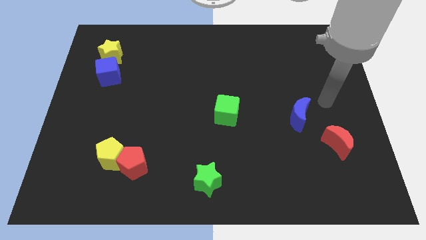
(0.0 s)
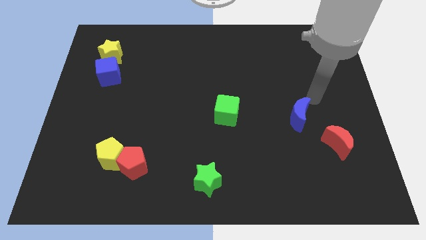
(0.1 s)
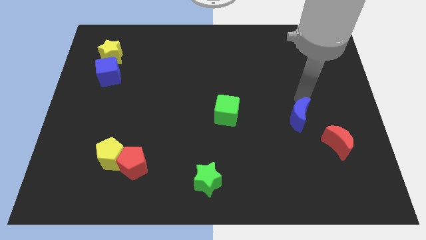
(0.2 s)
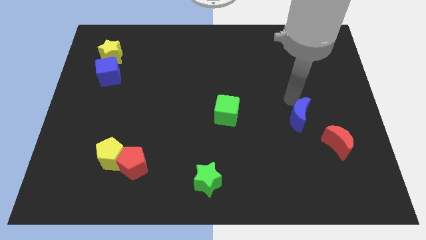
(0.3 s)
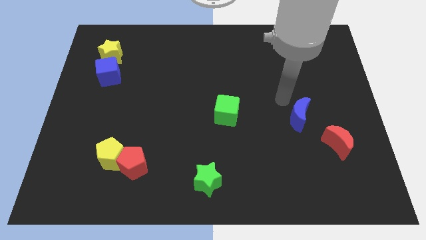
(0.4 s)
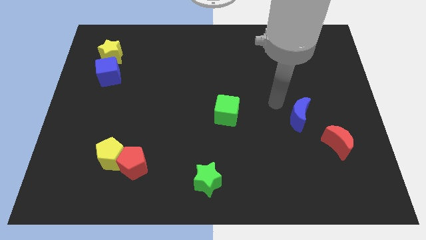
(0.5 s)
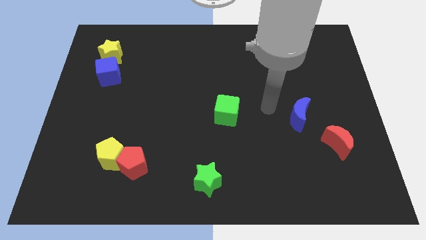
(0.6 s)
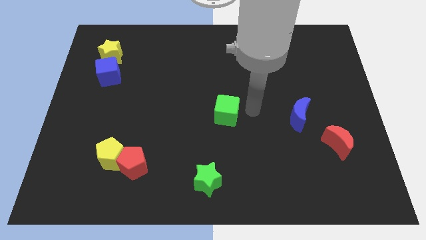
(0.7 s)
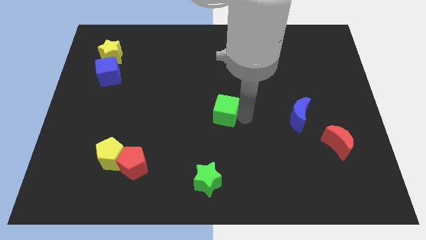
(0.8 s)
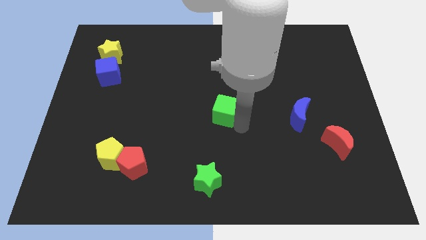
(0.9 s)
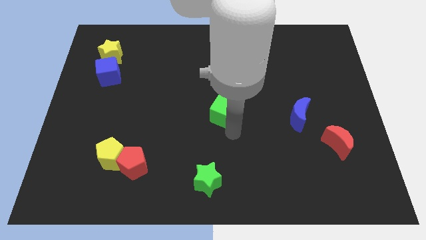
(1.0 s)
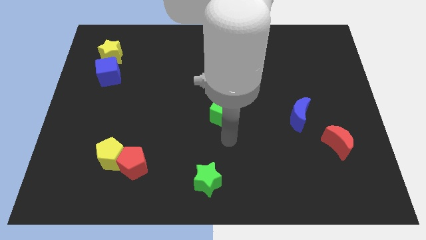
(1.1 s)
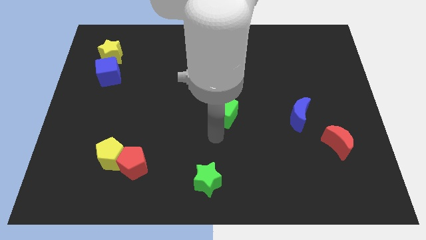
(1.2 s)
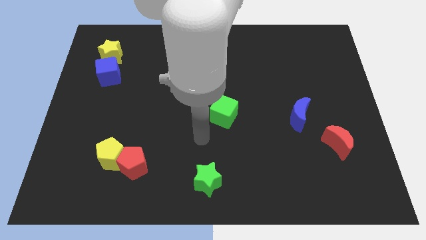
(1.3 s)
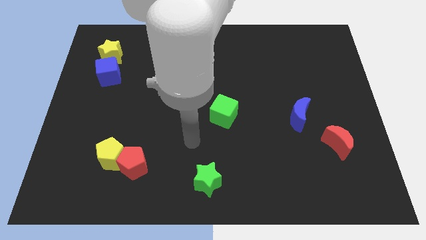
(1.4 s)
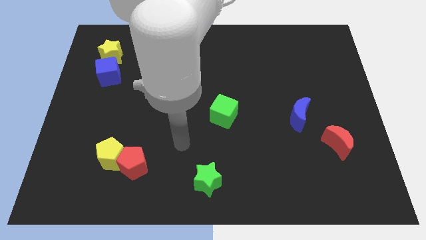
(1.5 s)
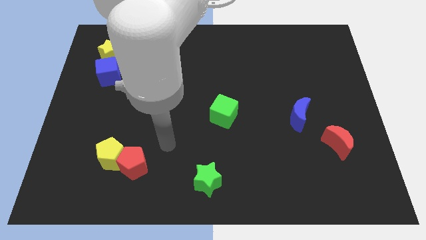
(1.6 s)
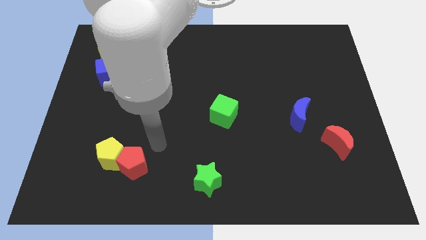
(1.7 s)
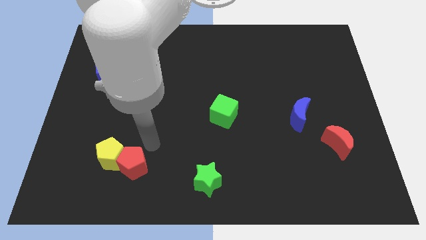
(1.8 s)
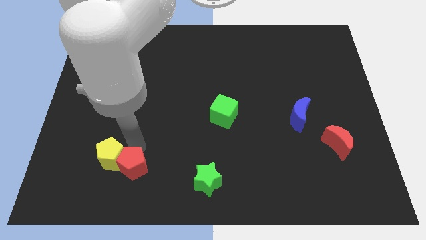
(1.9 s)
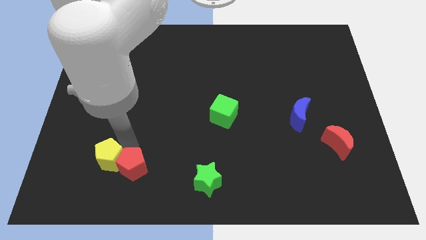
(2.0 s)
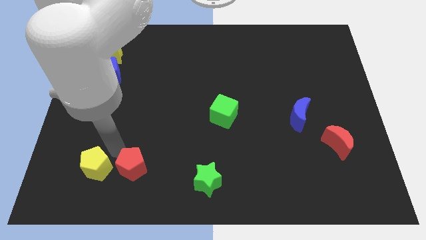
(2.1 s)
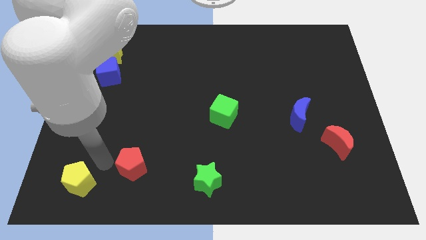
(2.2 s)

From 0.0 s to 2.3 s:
separate the red pentagon from the yellow pentagon

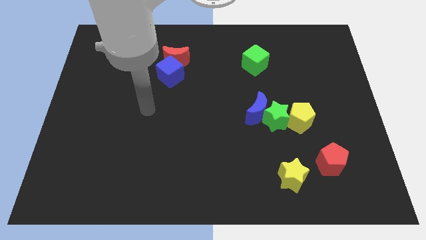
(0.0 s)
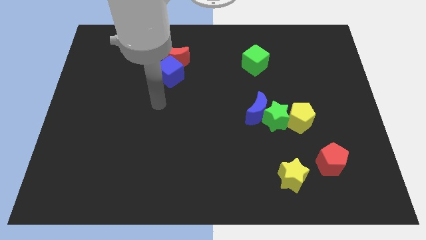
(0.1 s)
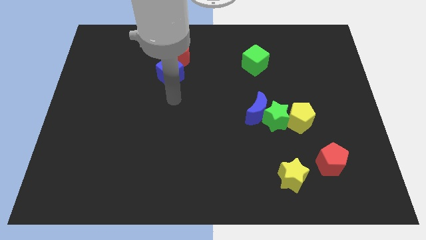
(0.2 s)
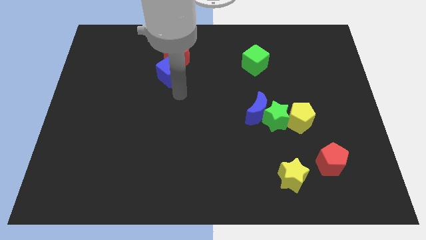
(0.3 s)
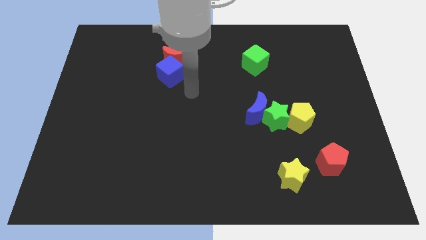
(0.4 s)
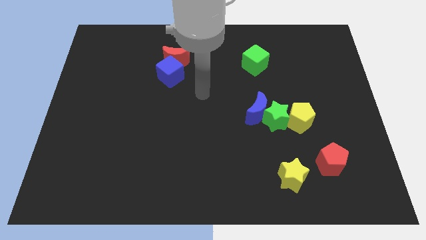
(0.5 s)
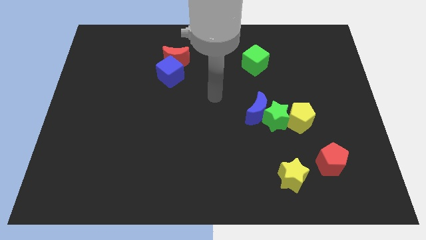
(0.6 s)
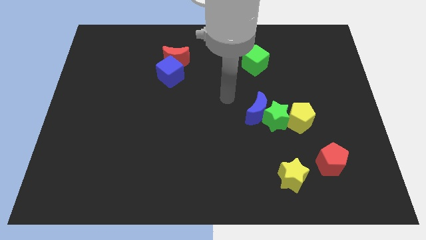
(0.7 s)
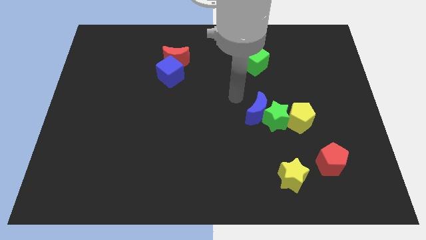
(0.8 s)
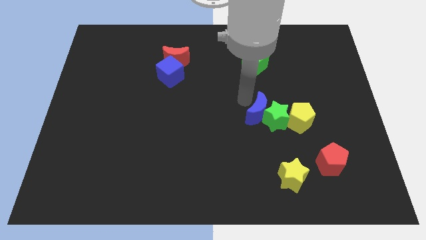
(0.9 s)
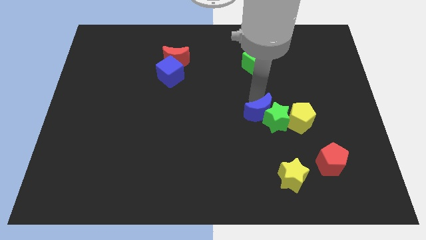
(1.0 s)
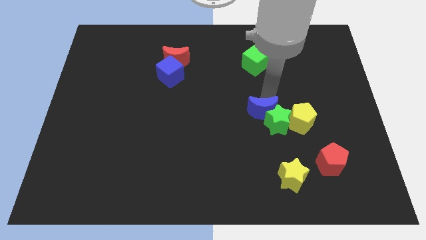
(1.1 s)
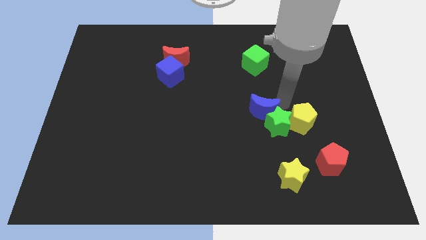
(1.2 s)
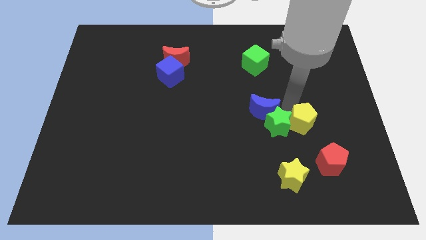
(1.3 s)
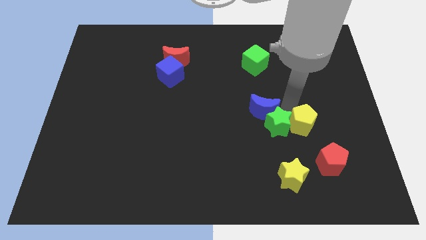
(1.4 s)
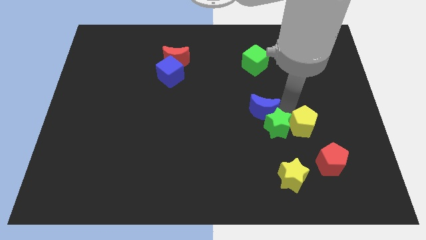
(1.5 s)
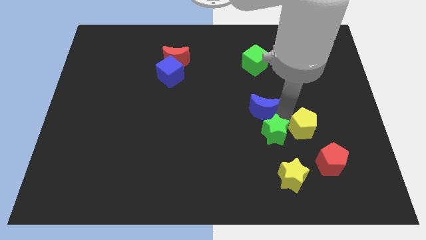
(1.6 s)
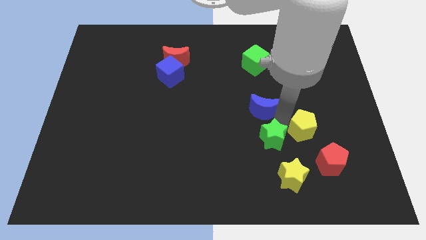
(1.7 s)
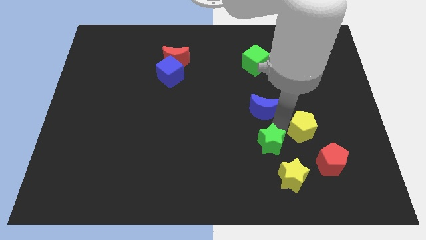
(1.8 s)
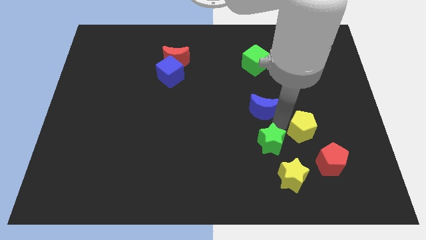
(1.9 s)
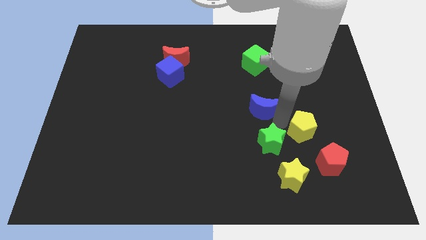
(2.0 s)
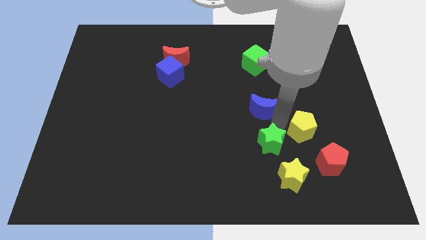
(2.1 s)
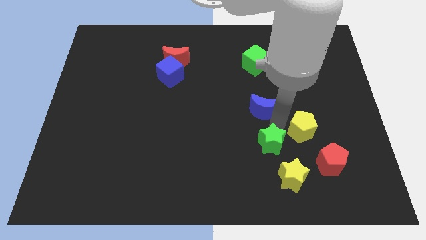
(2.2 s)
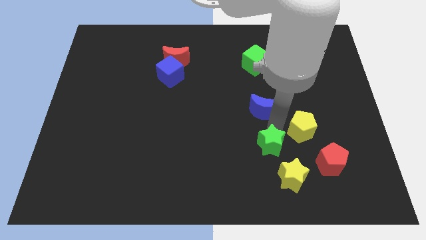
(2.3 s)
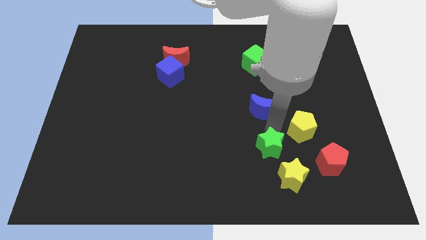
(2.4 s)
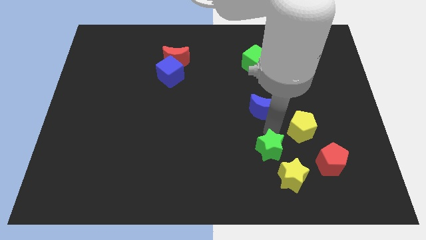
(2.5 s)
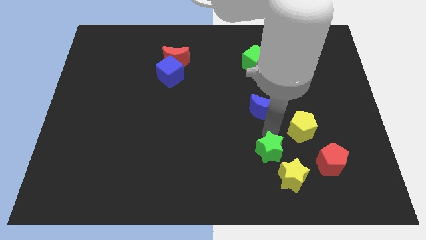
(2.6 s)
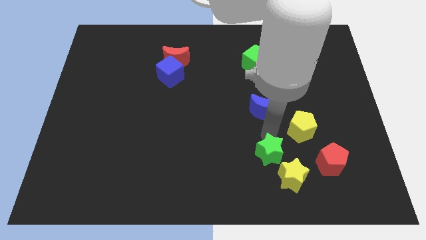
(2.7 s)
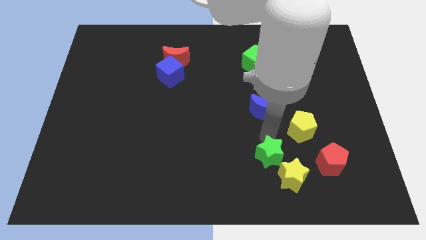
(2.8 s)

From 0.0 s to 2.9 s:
pull the green star apart from the blue moon and yellow pentagon

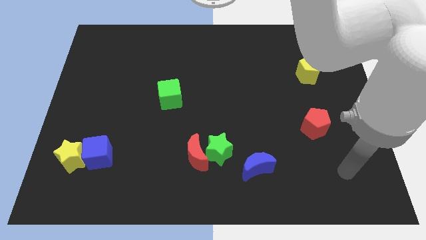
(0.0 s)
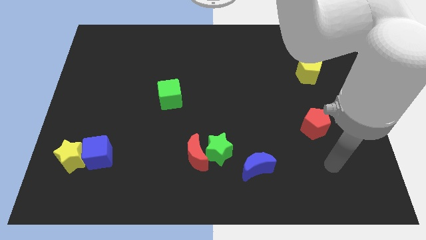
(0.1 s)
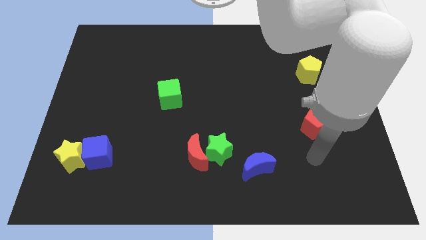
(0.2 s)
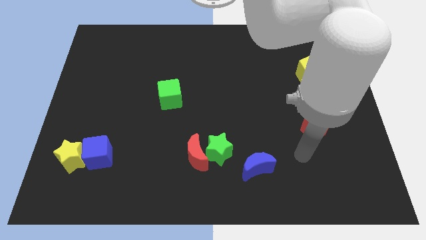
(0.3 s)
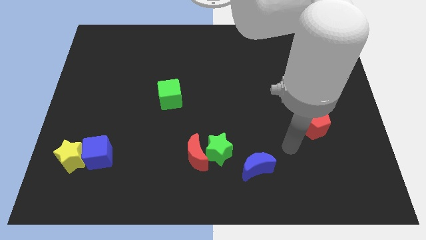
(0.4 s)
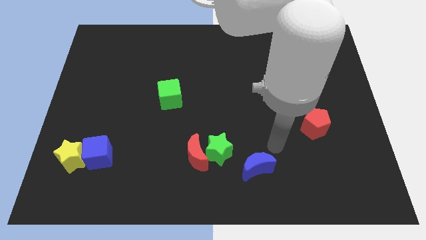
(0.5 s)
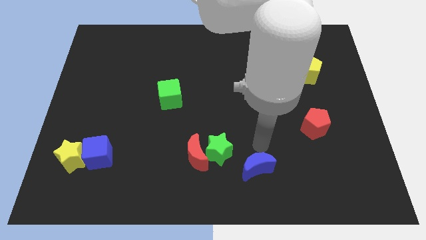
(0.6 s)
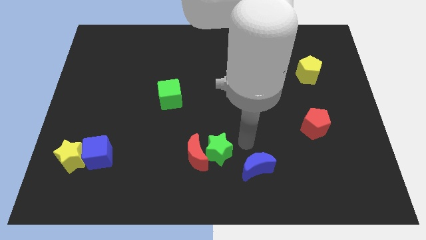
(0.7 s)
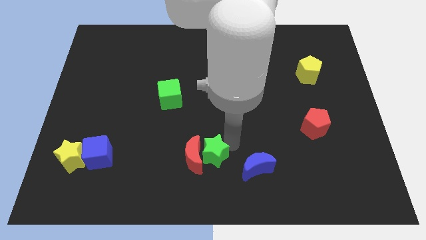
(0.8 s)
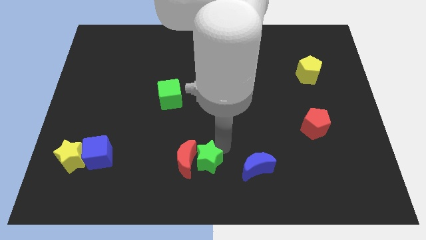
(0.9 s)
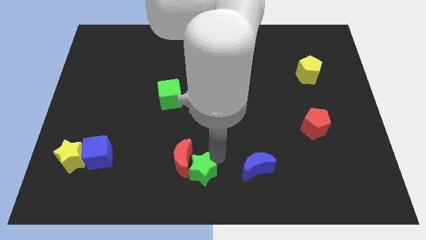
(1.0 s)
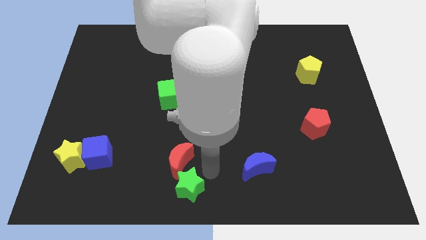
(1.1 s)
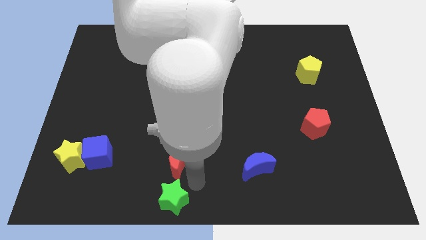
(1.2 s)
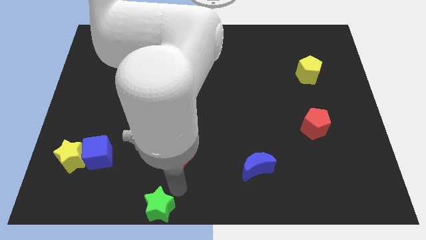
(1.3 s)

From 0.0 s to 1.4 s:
pull the red moon apart from the green star

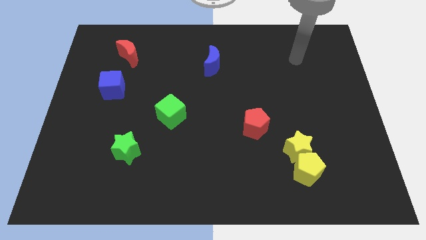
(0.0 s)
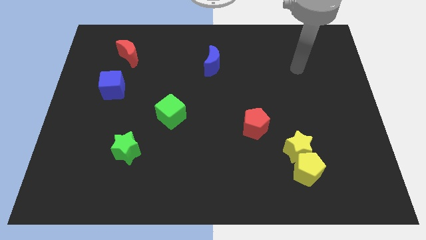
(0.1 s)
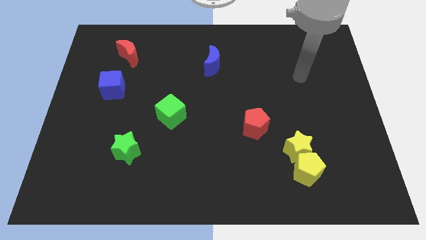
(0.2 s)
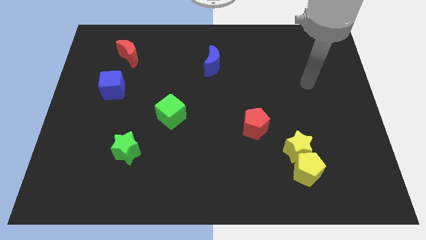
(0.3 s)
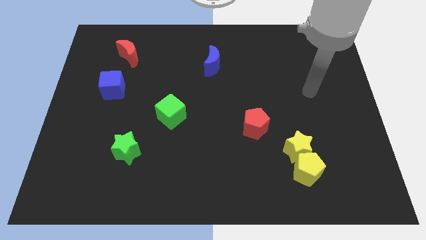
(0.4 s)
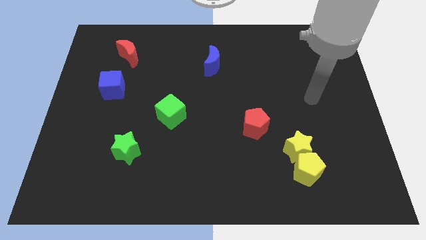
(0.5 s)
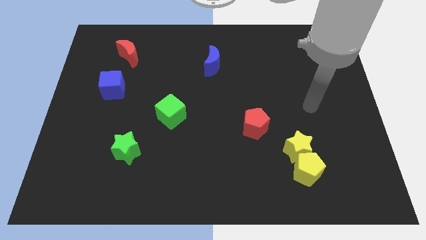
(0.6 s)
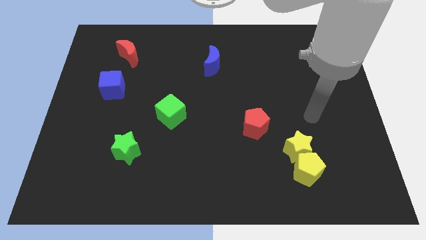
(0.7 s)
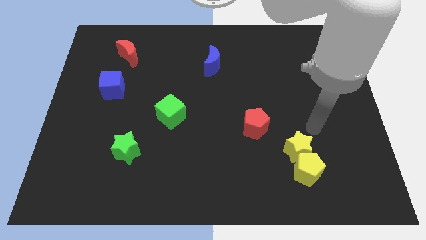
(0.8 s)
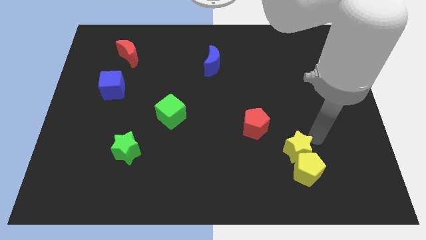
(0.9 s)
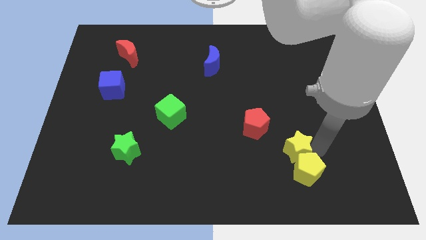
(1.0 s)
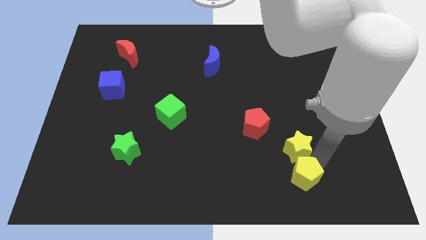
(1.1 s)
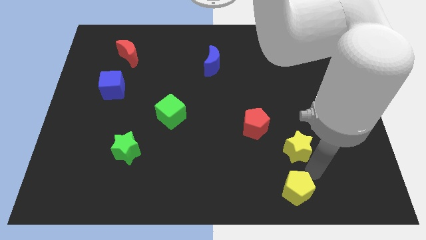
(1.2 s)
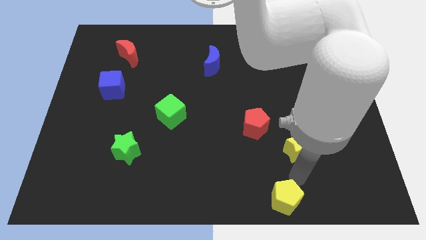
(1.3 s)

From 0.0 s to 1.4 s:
move the yellow star away from the yellow pentagon

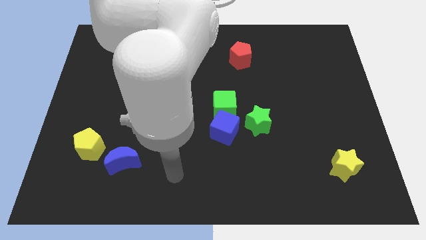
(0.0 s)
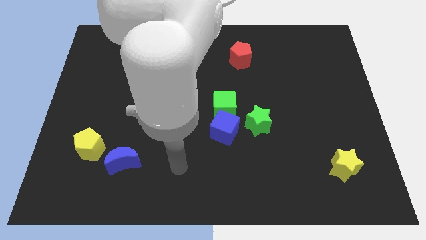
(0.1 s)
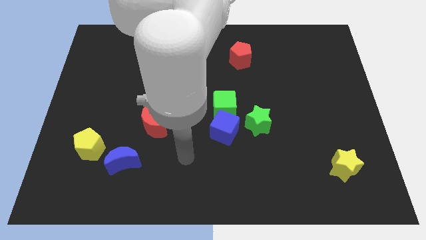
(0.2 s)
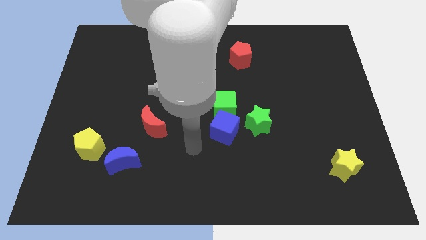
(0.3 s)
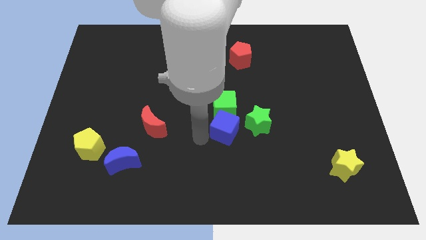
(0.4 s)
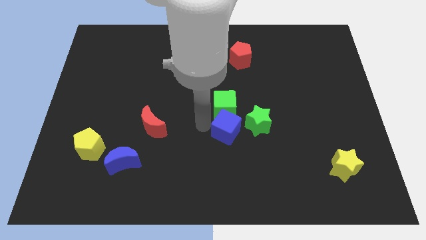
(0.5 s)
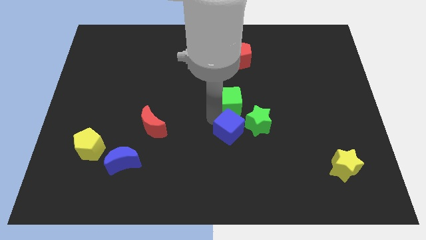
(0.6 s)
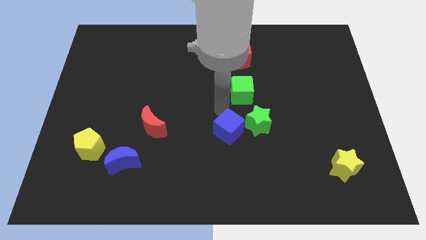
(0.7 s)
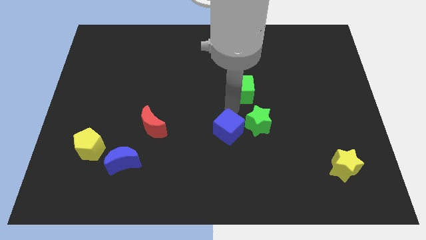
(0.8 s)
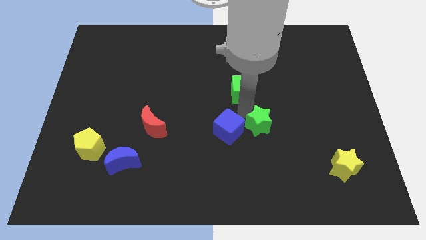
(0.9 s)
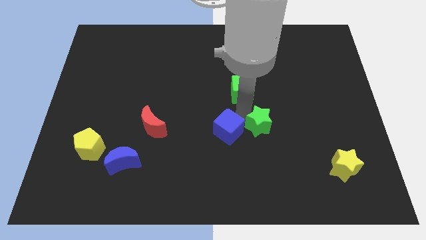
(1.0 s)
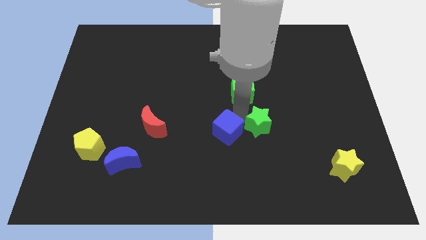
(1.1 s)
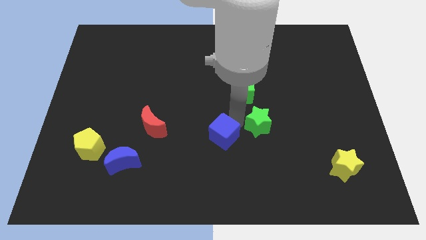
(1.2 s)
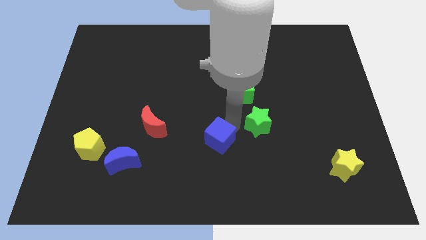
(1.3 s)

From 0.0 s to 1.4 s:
pull the blue cube apart from the green cube and green star
